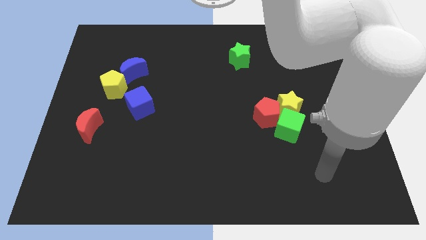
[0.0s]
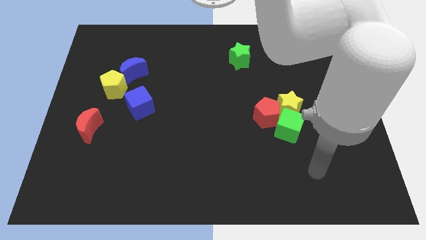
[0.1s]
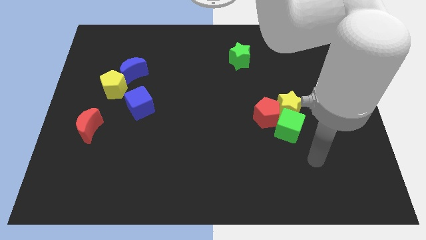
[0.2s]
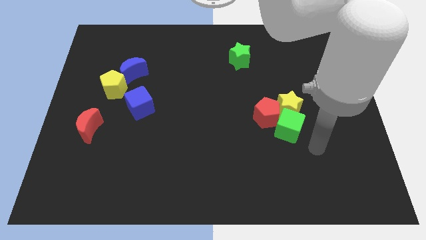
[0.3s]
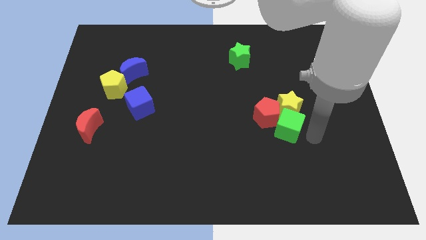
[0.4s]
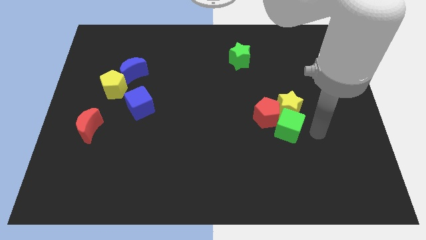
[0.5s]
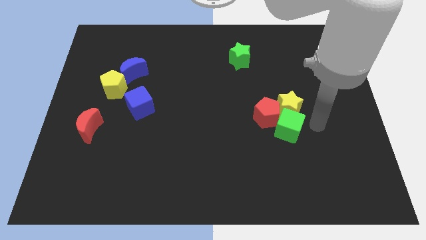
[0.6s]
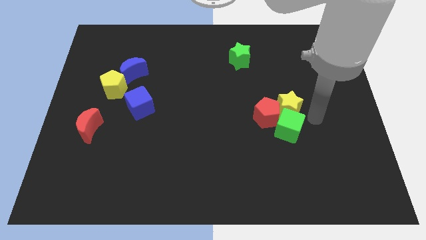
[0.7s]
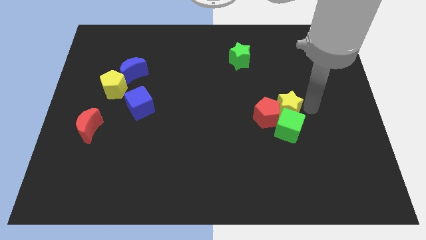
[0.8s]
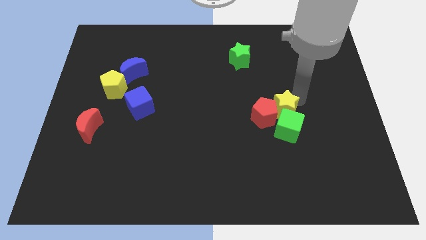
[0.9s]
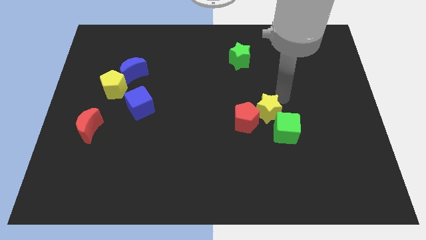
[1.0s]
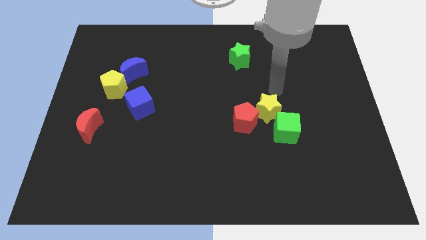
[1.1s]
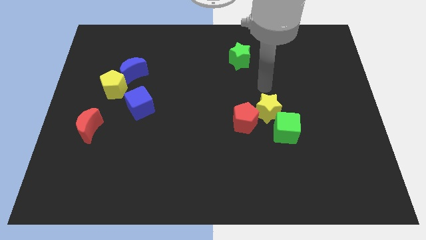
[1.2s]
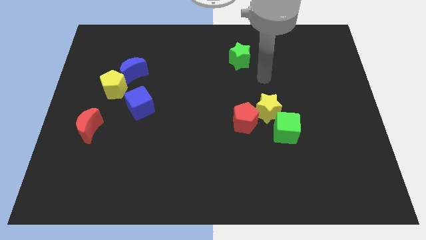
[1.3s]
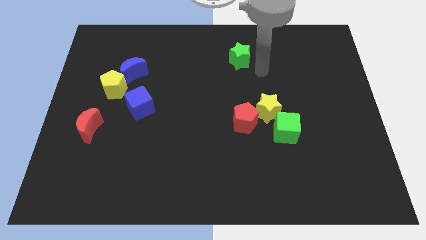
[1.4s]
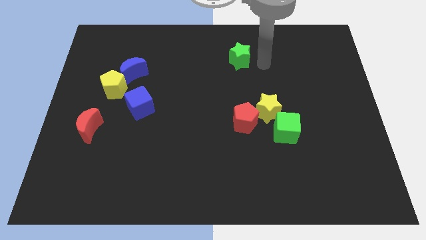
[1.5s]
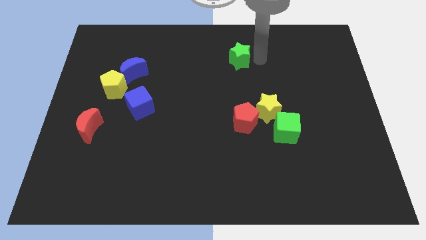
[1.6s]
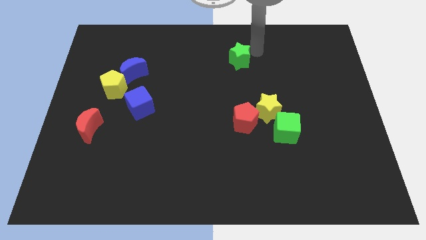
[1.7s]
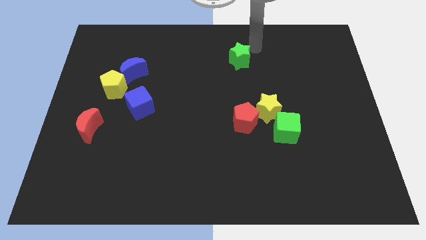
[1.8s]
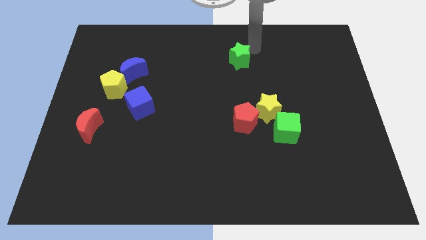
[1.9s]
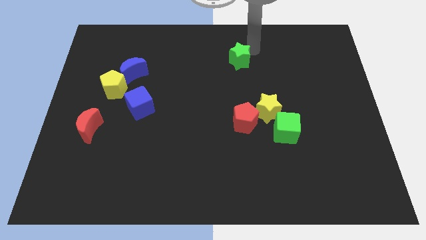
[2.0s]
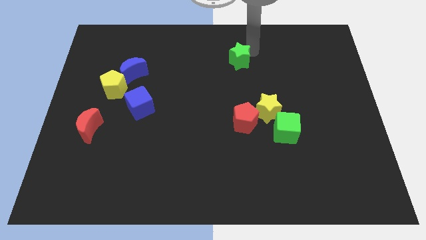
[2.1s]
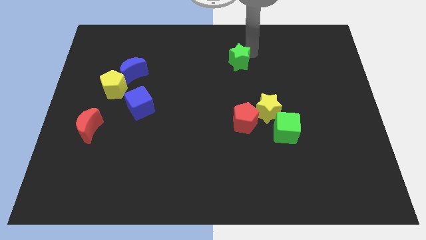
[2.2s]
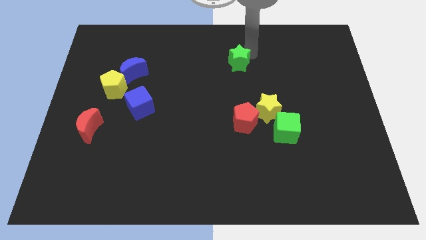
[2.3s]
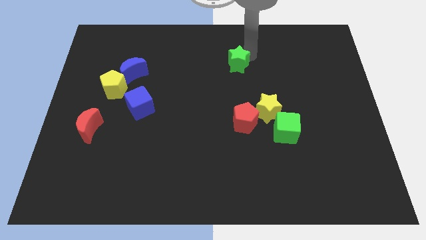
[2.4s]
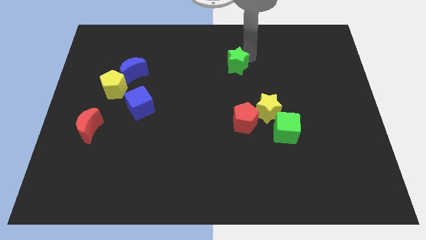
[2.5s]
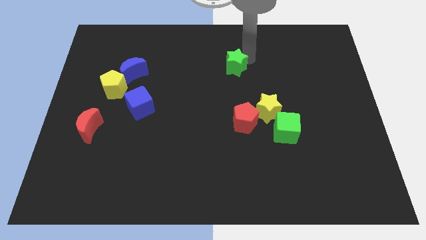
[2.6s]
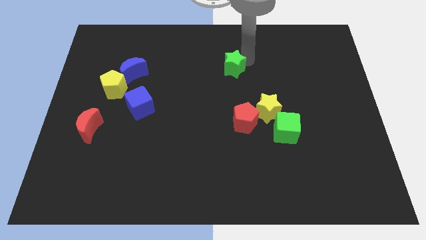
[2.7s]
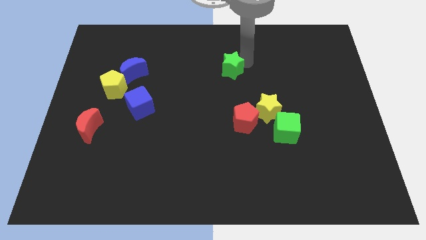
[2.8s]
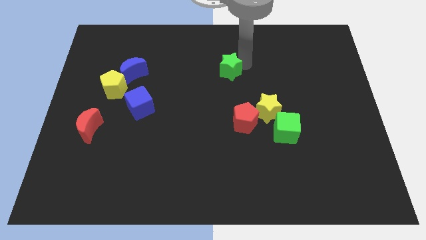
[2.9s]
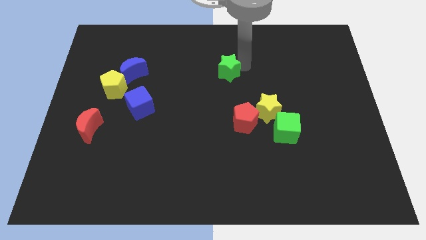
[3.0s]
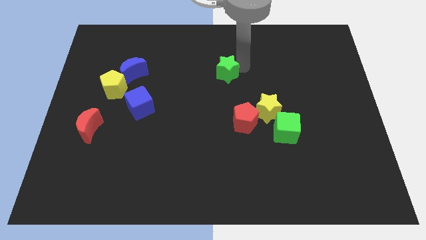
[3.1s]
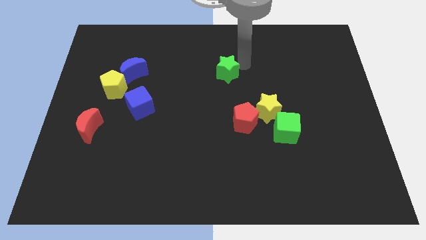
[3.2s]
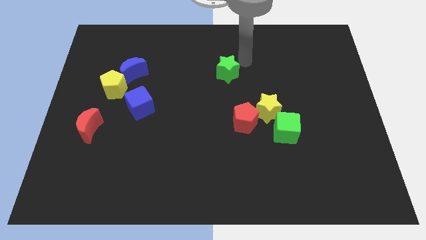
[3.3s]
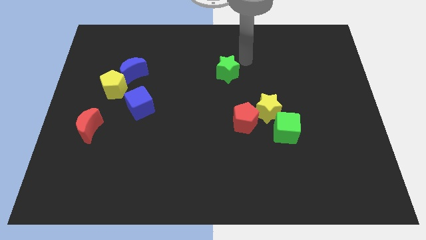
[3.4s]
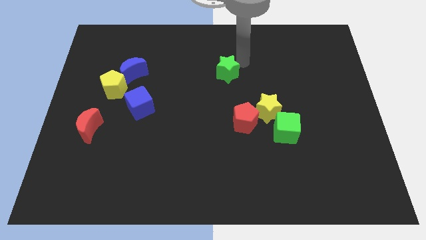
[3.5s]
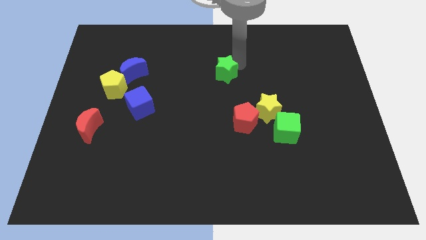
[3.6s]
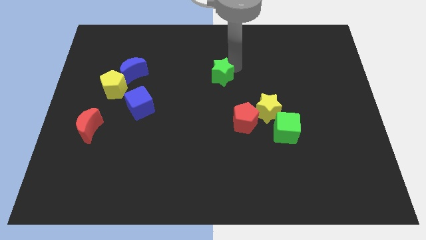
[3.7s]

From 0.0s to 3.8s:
push the green star diagonally down and left somewhat

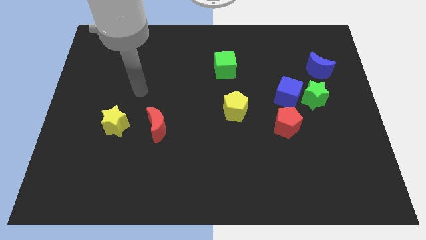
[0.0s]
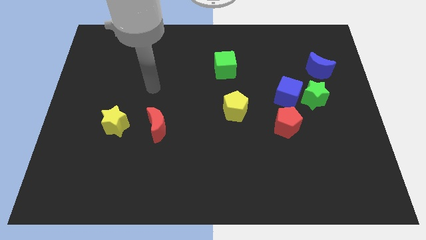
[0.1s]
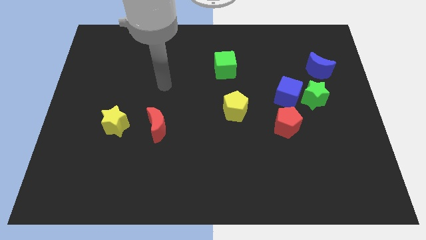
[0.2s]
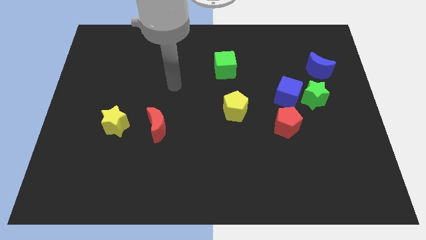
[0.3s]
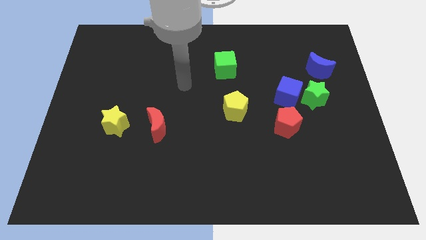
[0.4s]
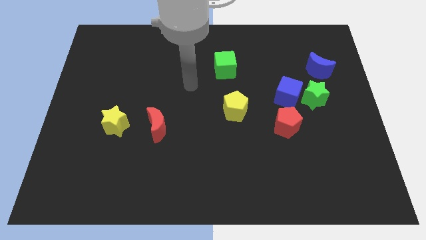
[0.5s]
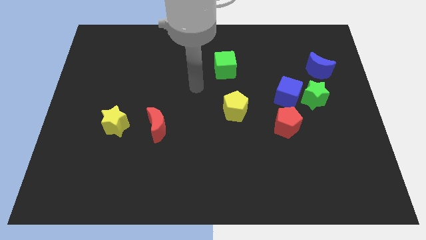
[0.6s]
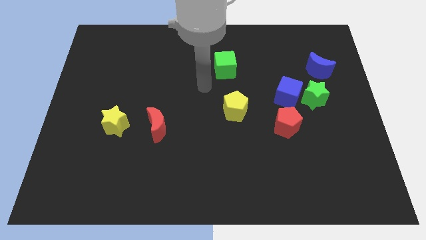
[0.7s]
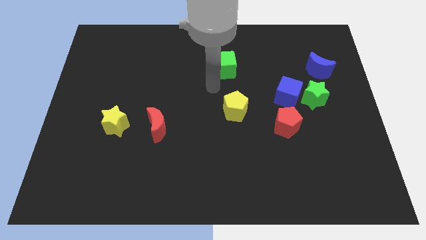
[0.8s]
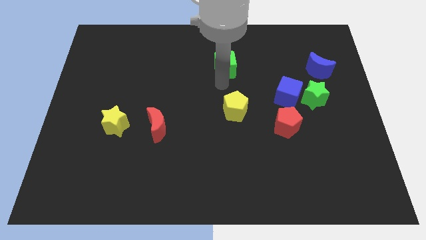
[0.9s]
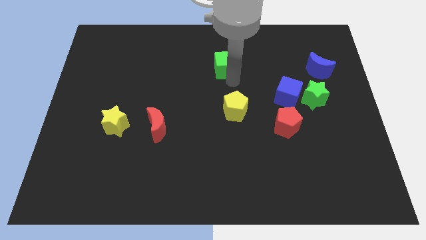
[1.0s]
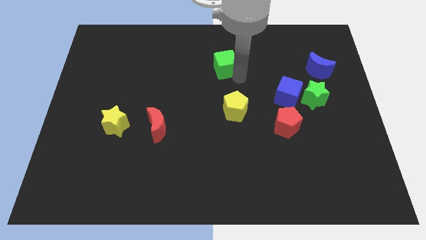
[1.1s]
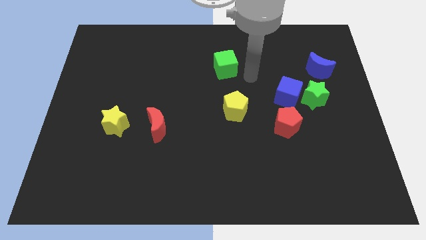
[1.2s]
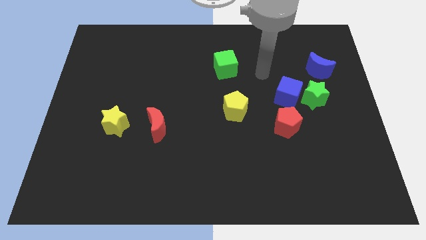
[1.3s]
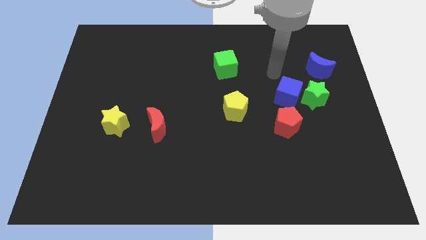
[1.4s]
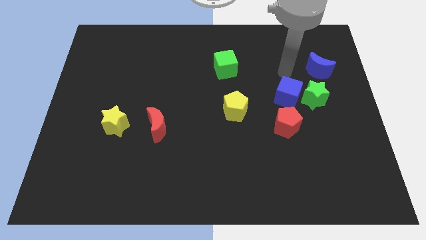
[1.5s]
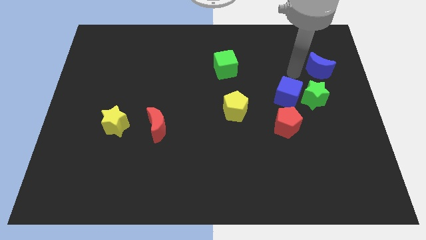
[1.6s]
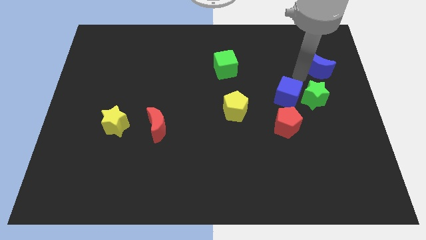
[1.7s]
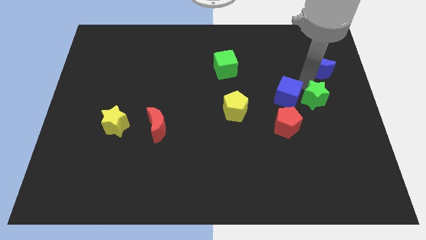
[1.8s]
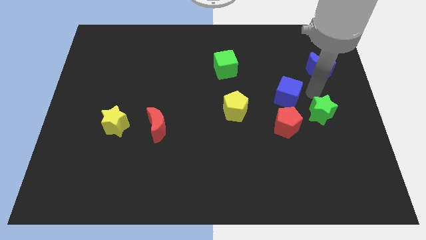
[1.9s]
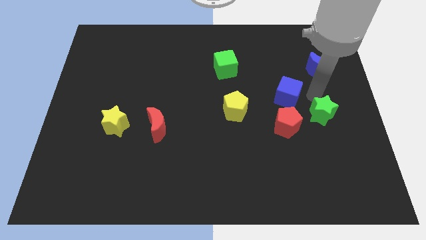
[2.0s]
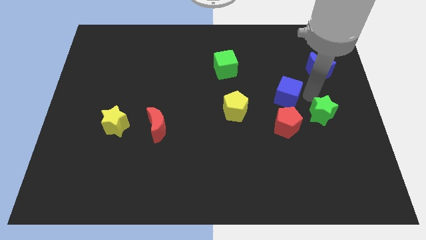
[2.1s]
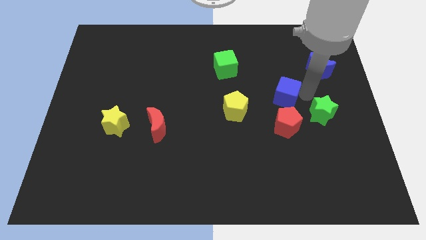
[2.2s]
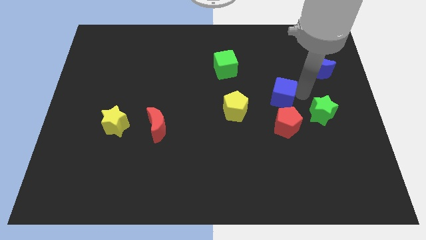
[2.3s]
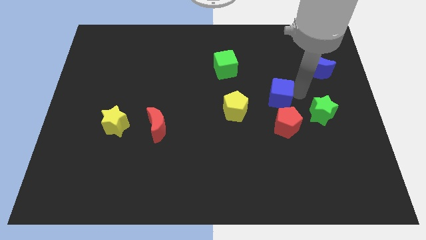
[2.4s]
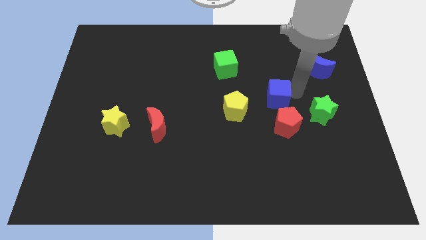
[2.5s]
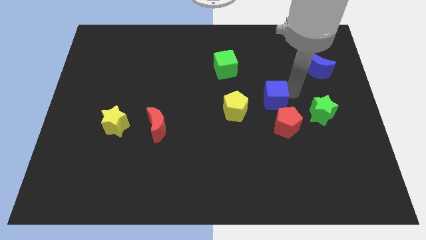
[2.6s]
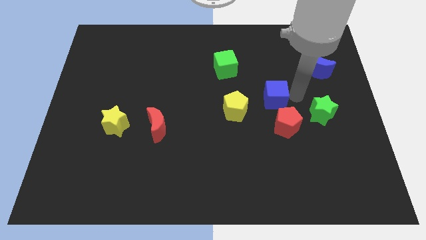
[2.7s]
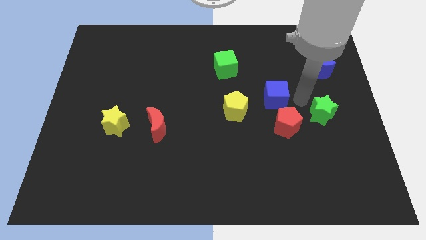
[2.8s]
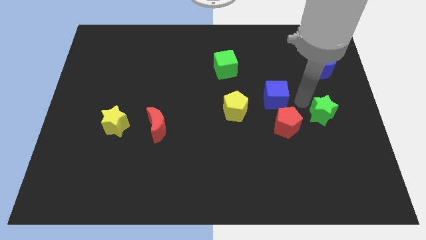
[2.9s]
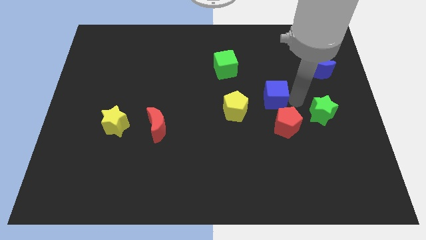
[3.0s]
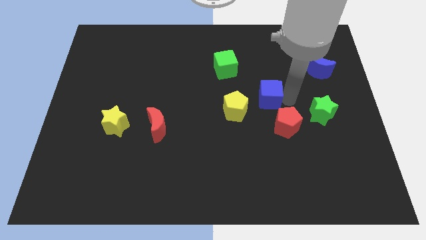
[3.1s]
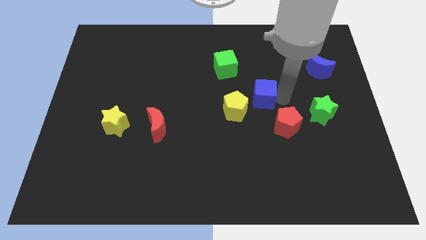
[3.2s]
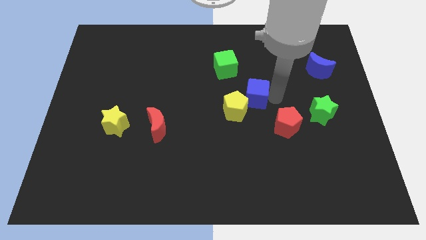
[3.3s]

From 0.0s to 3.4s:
push the blue cube a bit to the left

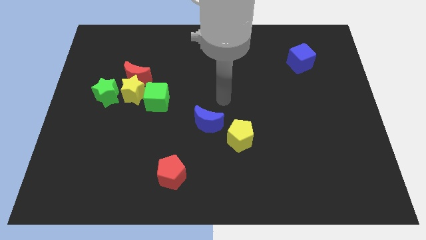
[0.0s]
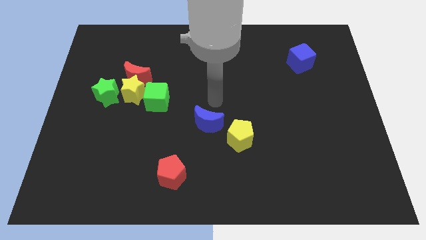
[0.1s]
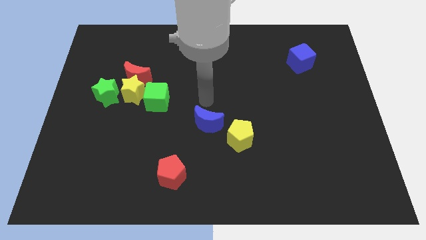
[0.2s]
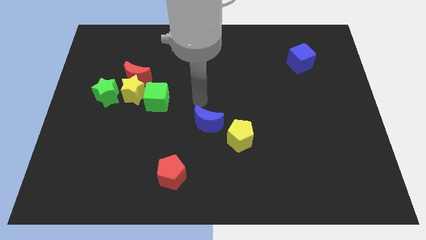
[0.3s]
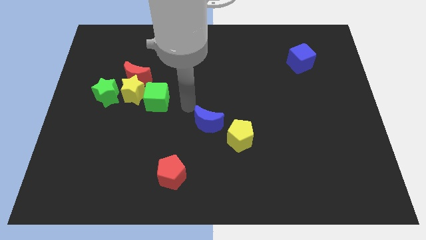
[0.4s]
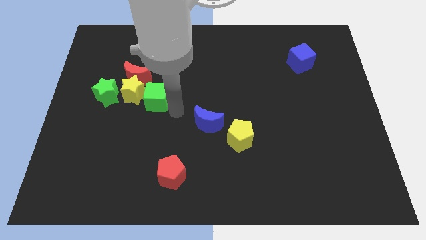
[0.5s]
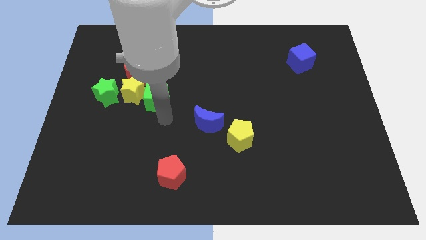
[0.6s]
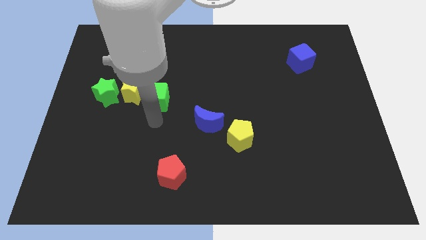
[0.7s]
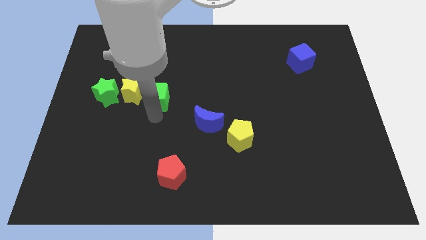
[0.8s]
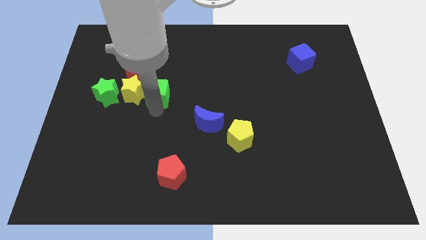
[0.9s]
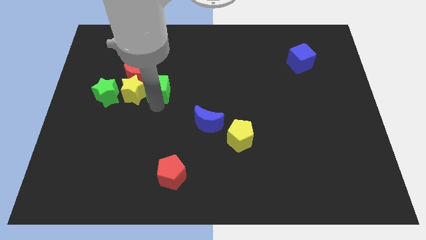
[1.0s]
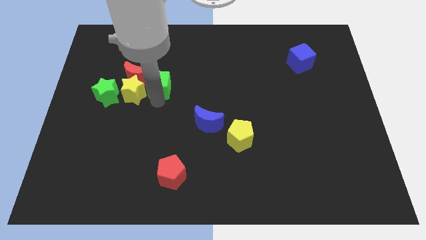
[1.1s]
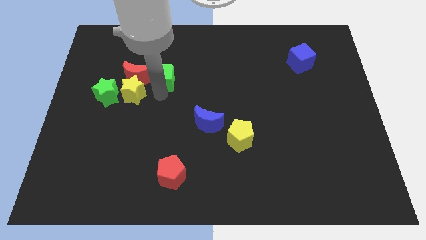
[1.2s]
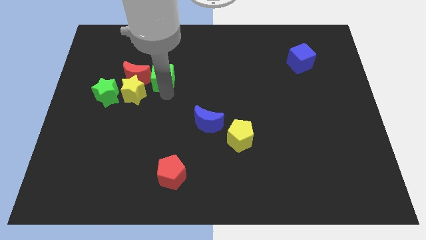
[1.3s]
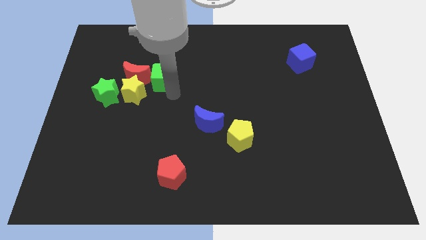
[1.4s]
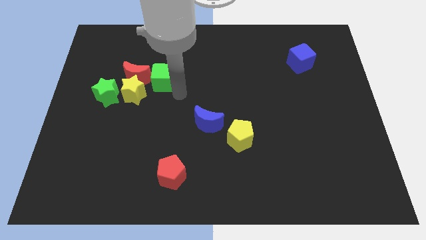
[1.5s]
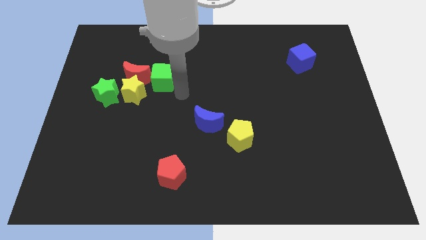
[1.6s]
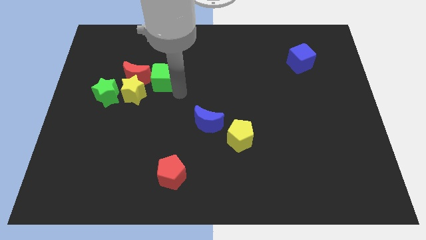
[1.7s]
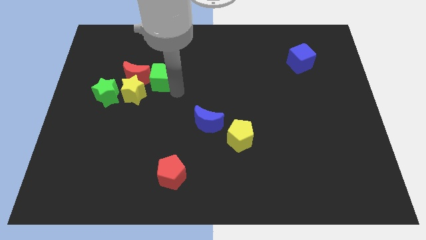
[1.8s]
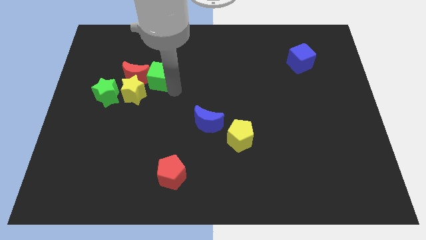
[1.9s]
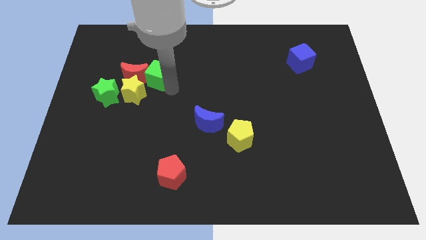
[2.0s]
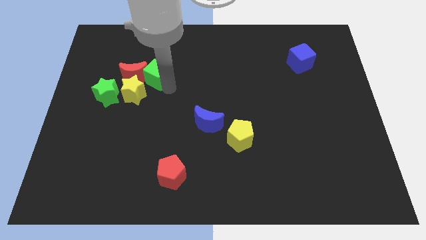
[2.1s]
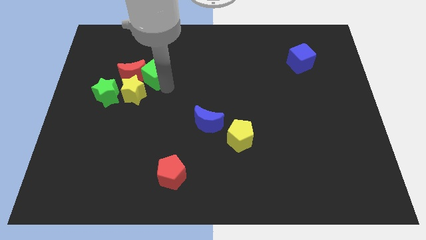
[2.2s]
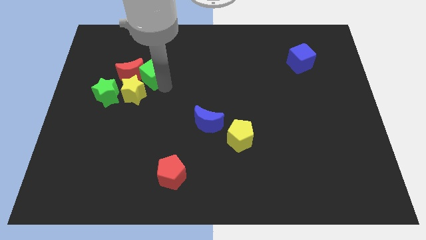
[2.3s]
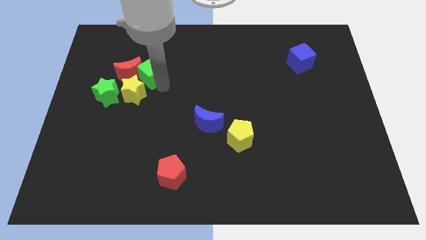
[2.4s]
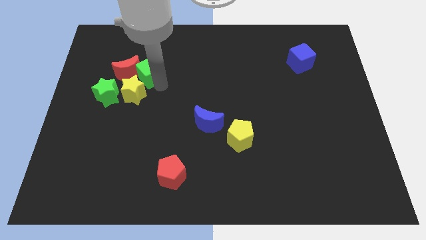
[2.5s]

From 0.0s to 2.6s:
slide the green cube up and then to the left slightly
